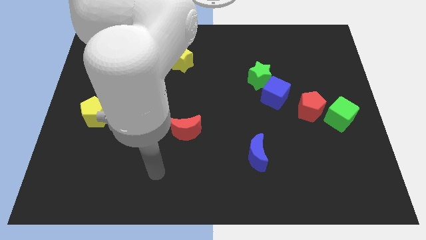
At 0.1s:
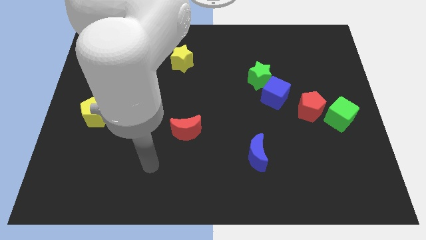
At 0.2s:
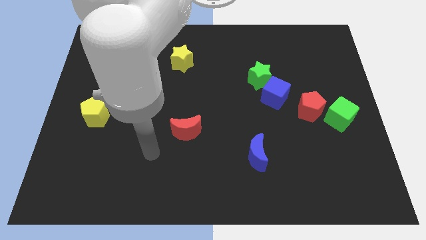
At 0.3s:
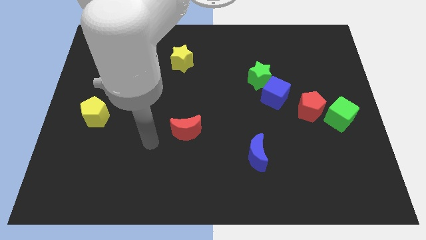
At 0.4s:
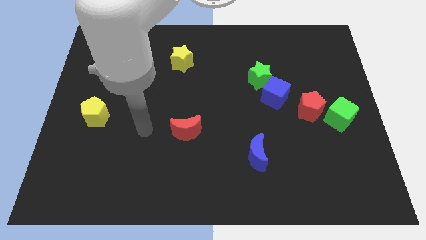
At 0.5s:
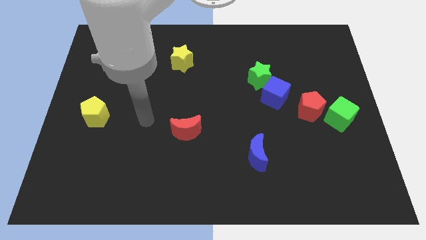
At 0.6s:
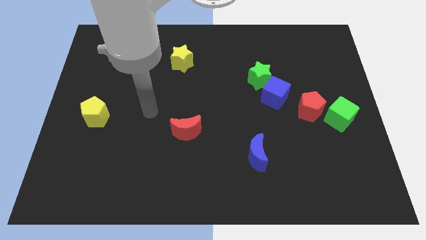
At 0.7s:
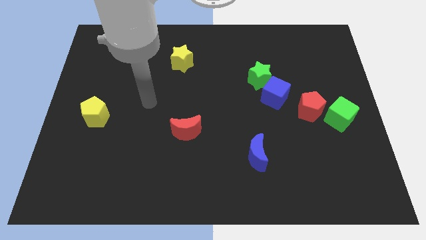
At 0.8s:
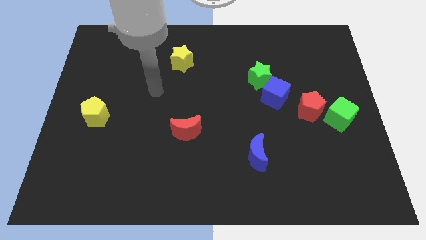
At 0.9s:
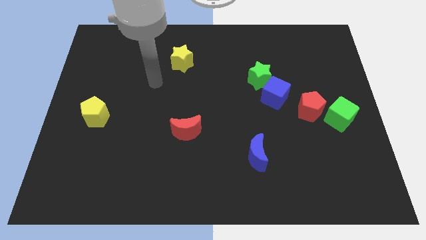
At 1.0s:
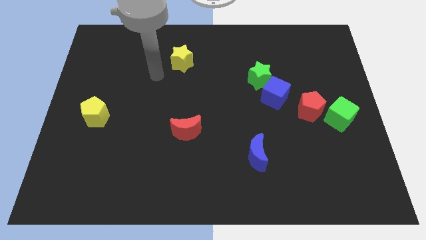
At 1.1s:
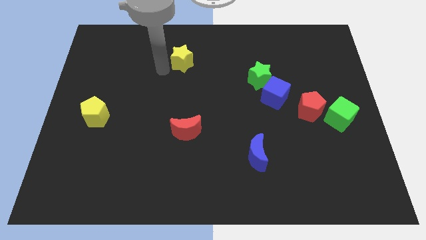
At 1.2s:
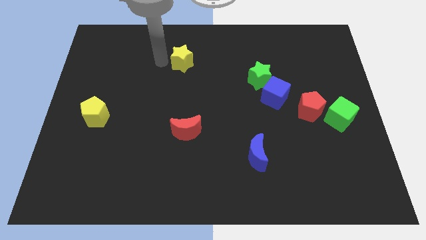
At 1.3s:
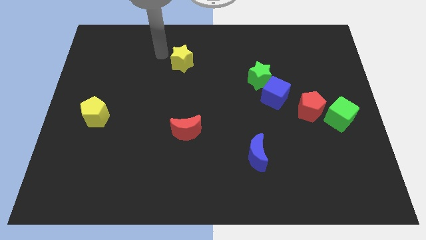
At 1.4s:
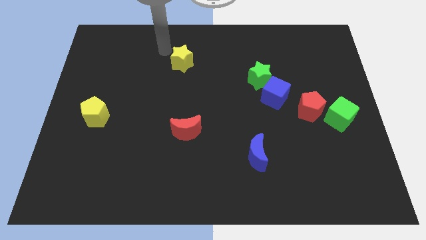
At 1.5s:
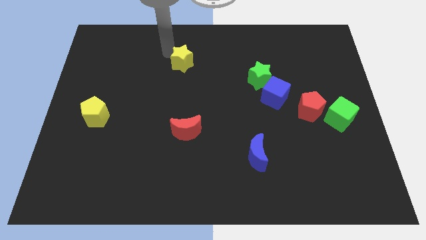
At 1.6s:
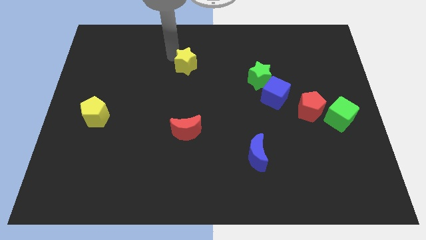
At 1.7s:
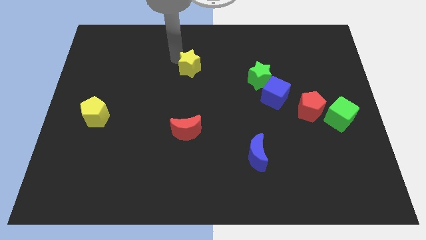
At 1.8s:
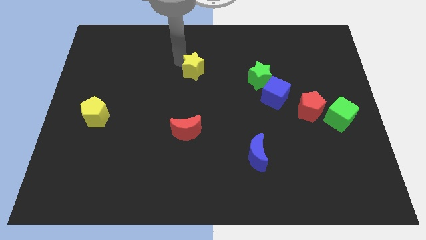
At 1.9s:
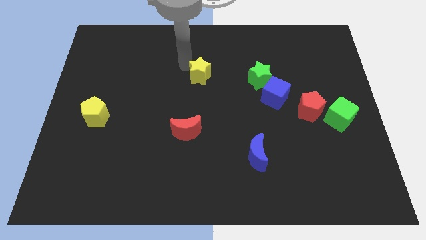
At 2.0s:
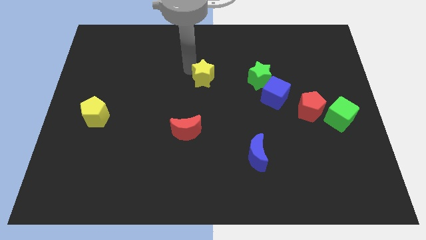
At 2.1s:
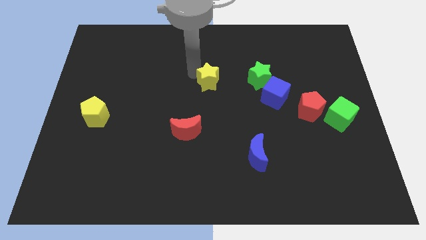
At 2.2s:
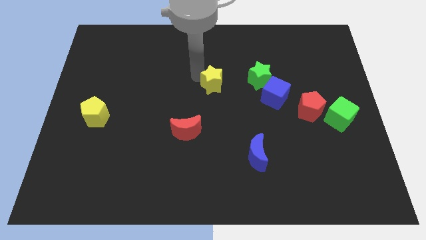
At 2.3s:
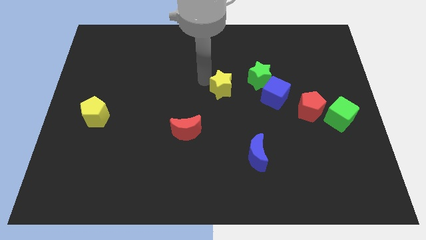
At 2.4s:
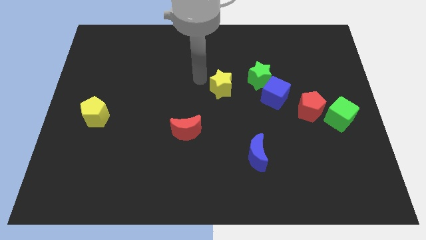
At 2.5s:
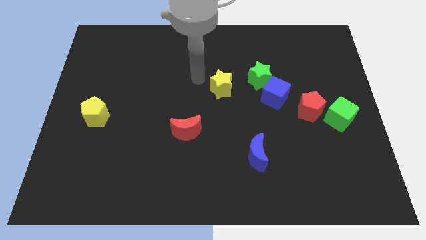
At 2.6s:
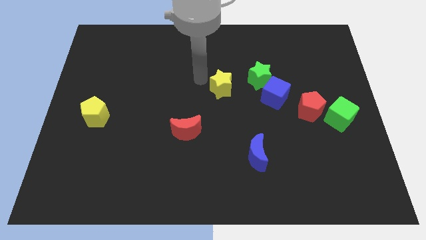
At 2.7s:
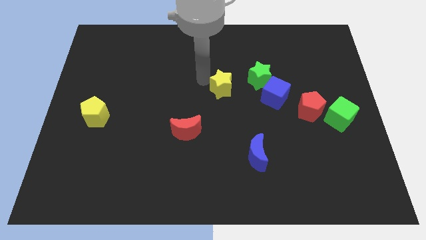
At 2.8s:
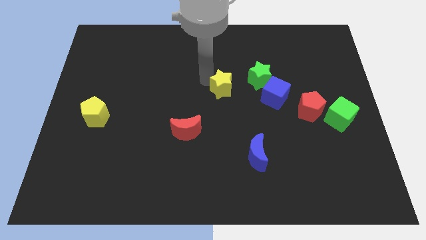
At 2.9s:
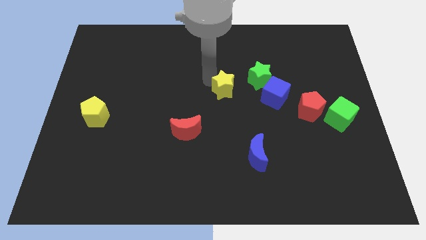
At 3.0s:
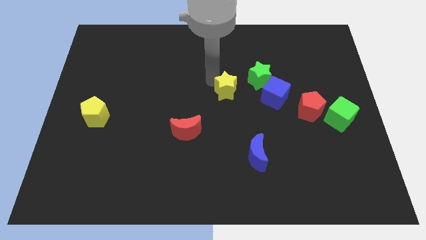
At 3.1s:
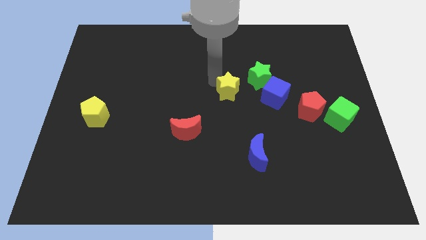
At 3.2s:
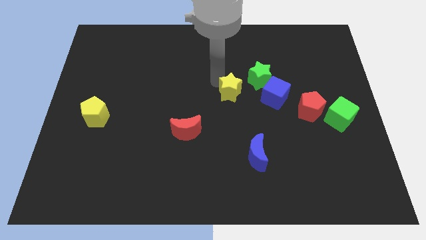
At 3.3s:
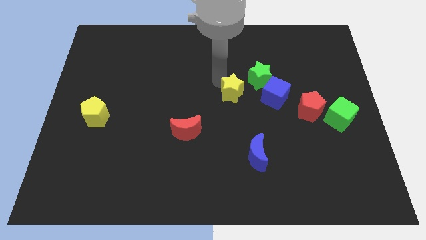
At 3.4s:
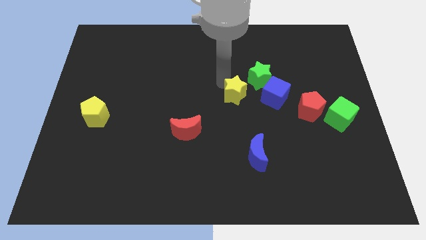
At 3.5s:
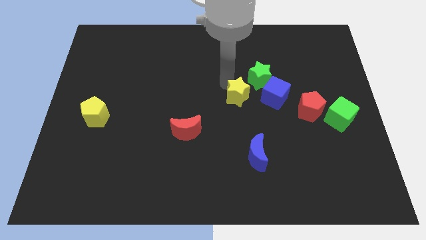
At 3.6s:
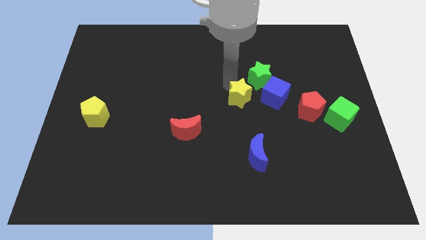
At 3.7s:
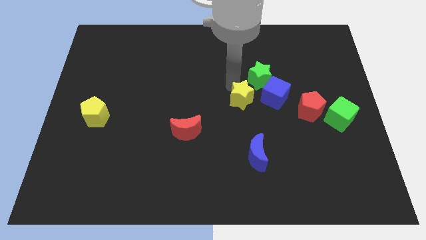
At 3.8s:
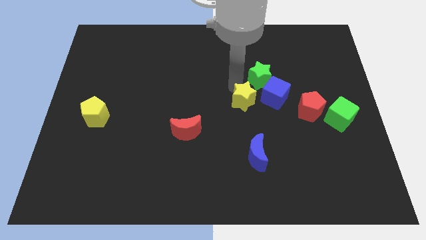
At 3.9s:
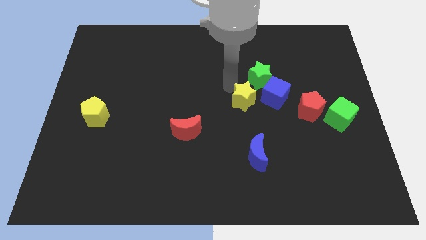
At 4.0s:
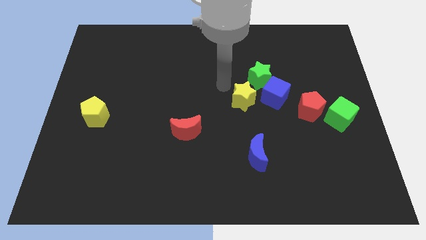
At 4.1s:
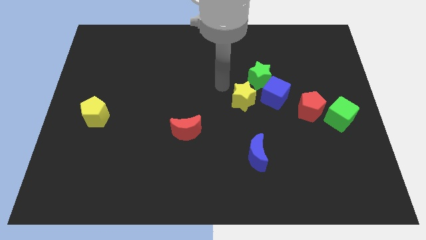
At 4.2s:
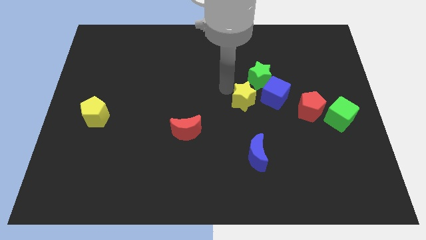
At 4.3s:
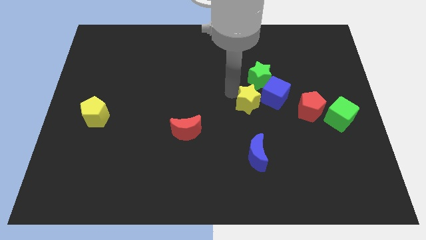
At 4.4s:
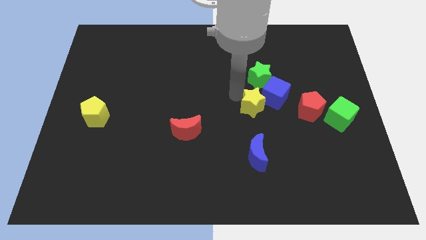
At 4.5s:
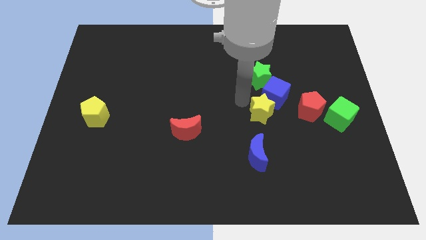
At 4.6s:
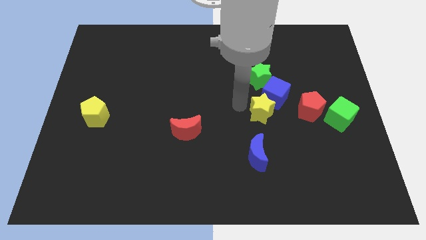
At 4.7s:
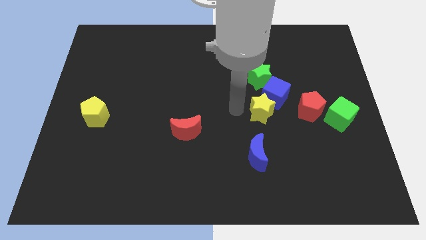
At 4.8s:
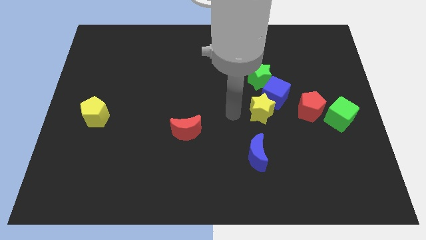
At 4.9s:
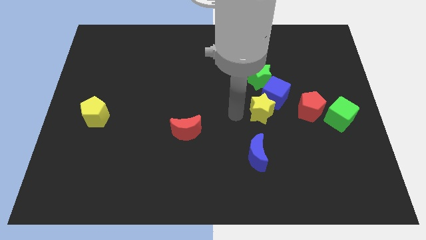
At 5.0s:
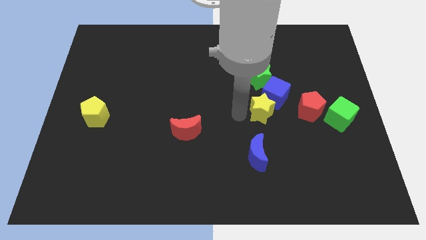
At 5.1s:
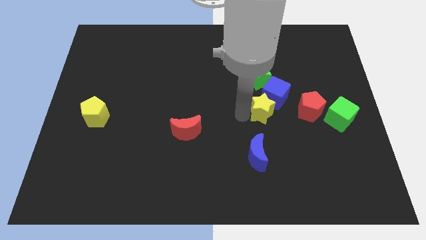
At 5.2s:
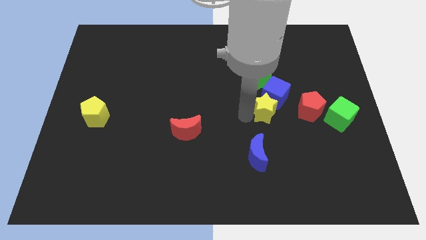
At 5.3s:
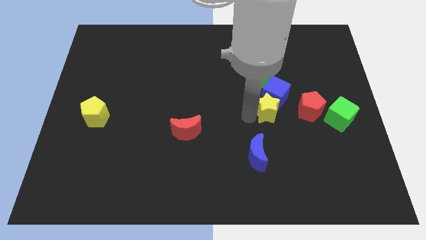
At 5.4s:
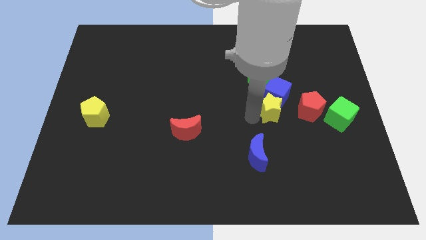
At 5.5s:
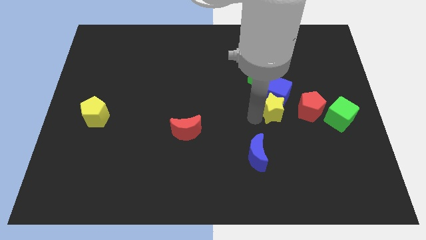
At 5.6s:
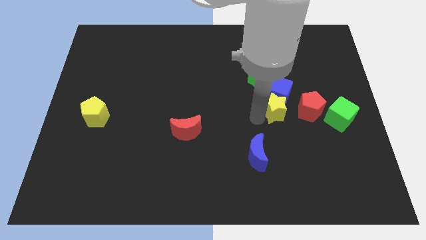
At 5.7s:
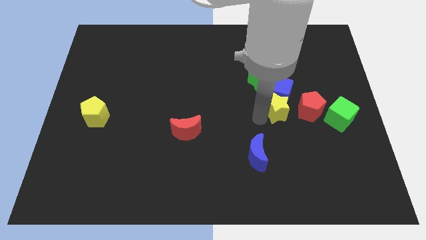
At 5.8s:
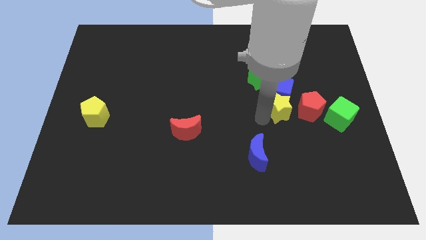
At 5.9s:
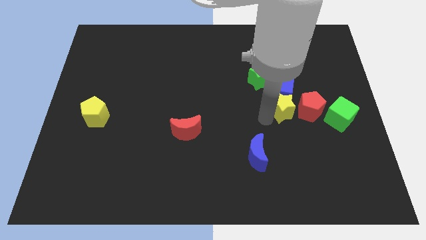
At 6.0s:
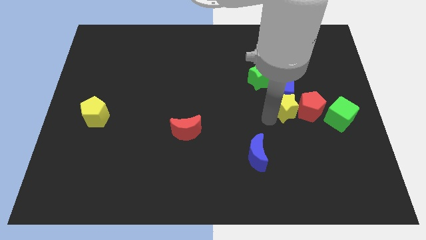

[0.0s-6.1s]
put the yellow star to the red pentagon

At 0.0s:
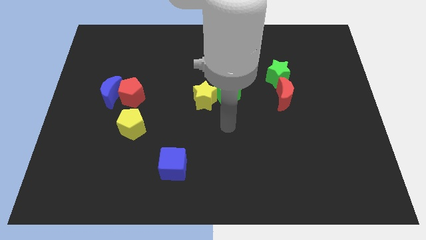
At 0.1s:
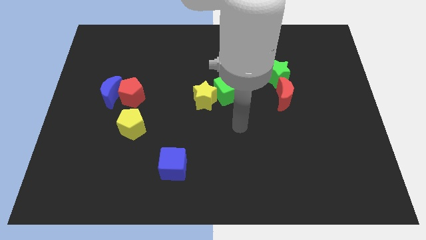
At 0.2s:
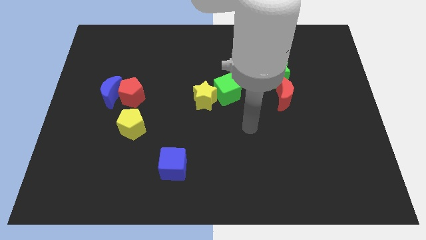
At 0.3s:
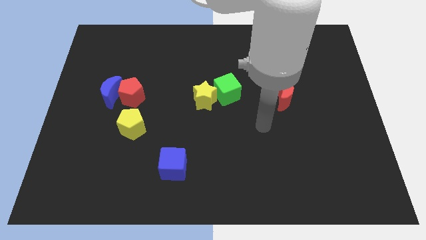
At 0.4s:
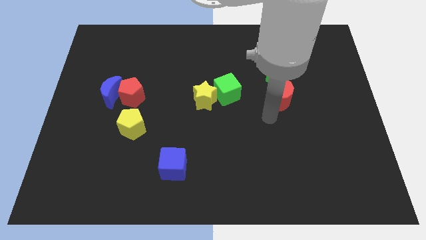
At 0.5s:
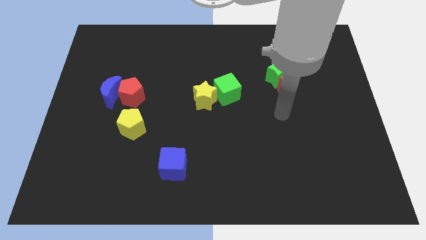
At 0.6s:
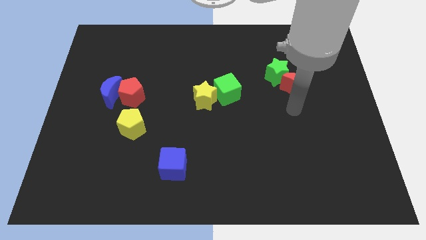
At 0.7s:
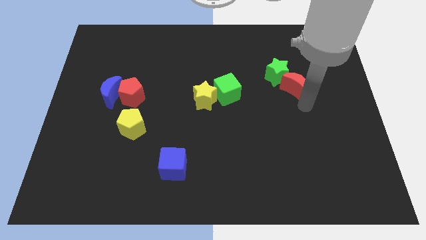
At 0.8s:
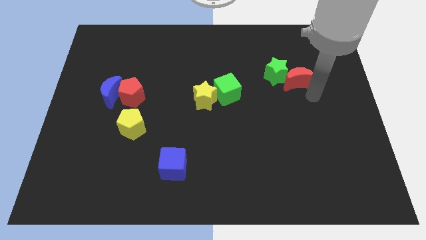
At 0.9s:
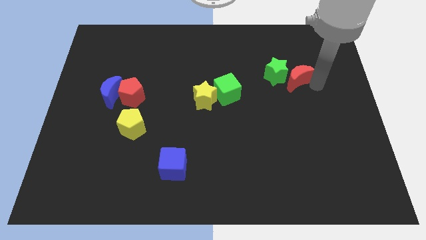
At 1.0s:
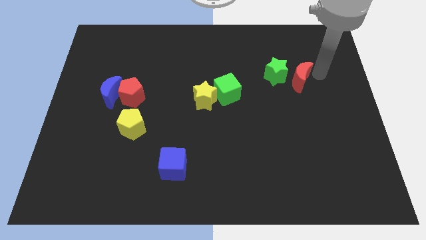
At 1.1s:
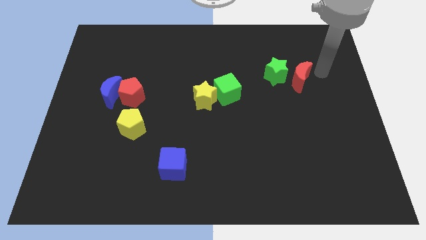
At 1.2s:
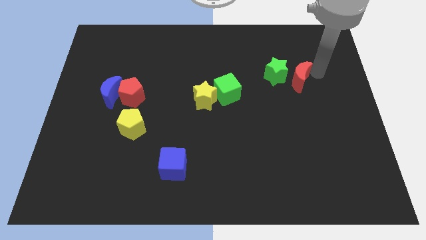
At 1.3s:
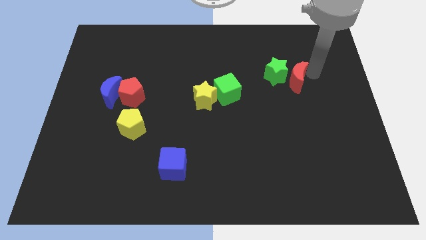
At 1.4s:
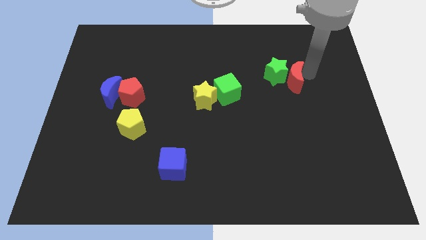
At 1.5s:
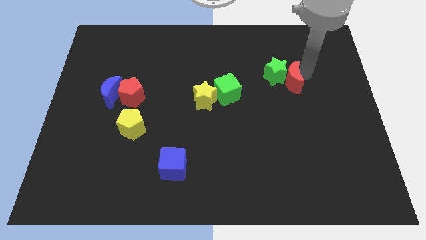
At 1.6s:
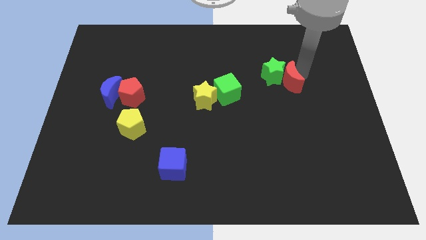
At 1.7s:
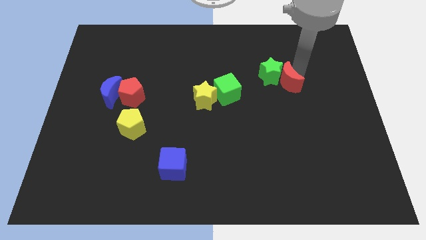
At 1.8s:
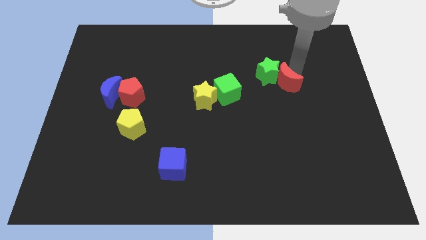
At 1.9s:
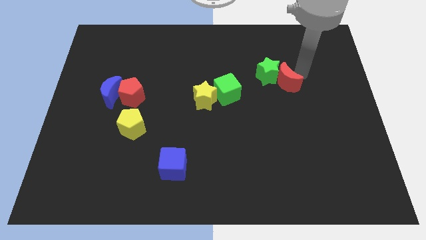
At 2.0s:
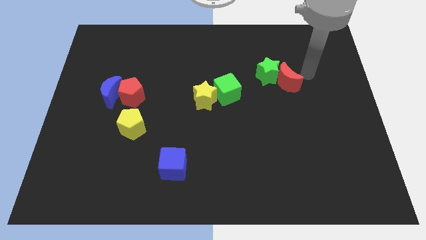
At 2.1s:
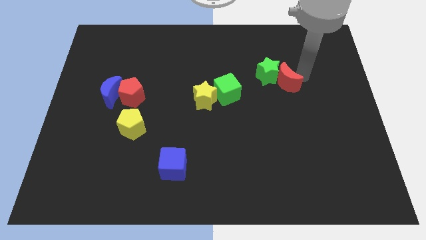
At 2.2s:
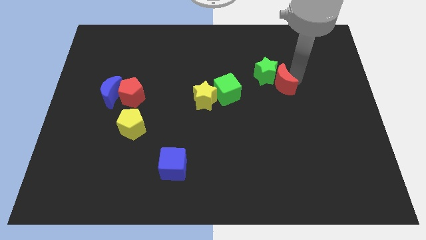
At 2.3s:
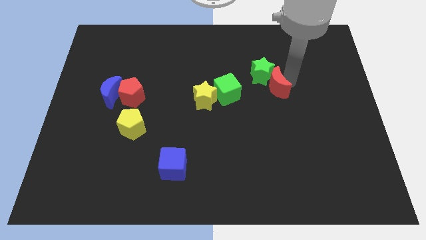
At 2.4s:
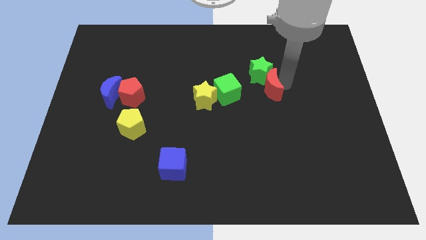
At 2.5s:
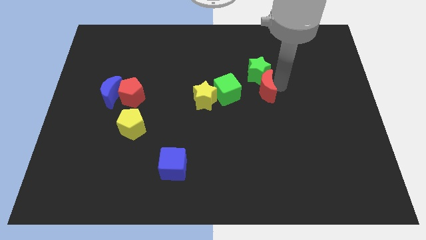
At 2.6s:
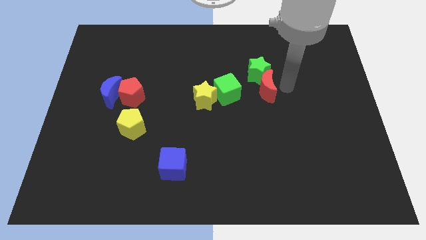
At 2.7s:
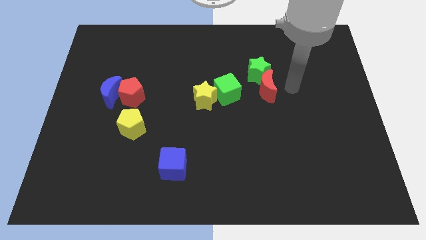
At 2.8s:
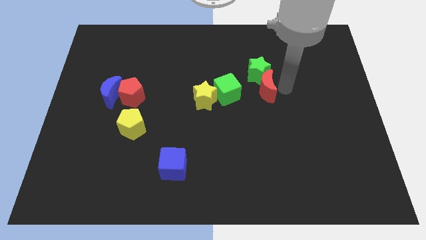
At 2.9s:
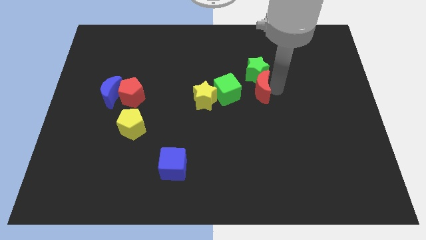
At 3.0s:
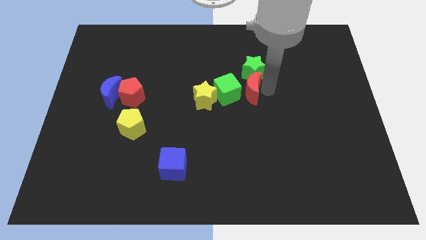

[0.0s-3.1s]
put the red moon towards the green cube
